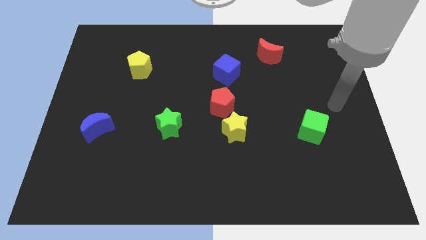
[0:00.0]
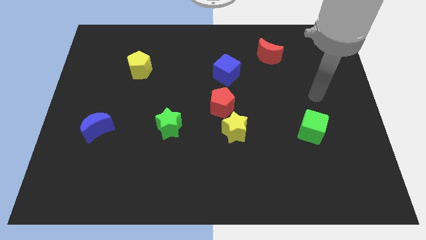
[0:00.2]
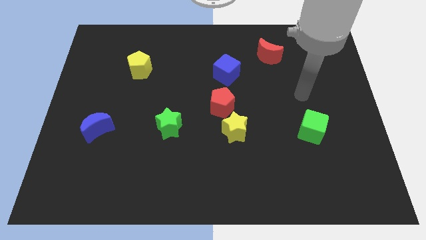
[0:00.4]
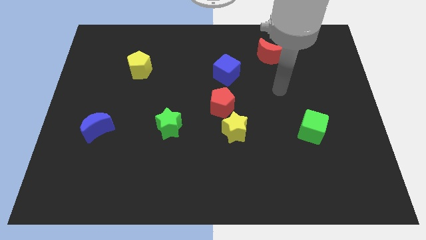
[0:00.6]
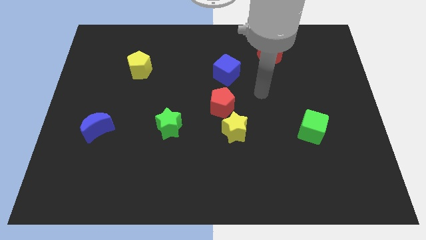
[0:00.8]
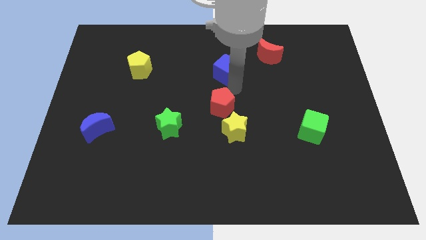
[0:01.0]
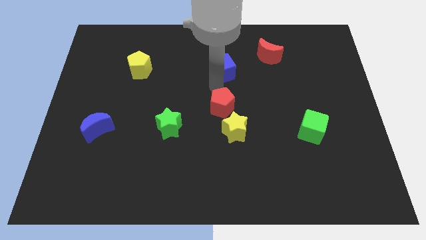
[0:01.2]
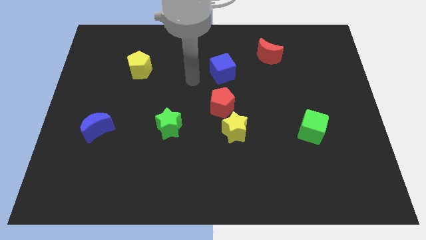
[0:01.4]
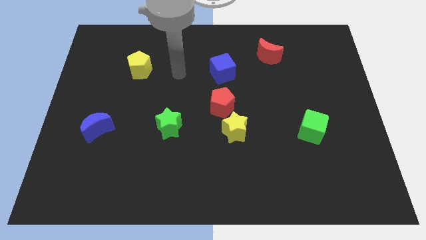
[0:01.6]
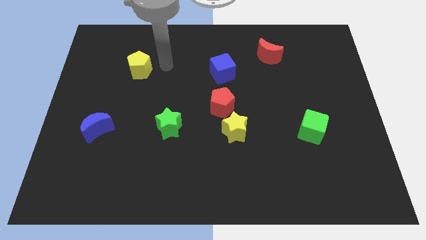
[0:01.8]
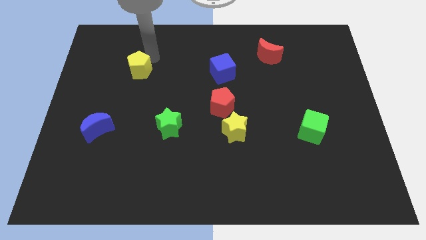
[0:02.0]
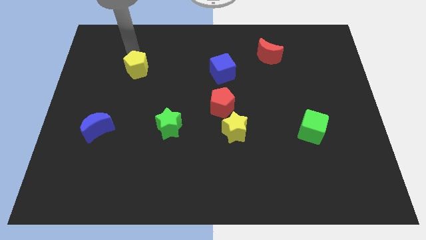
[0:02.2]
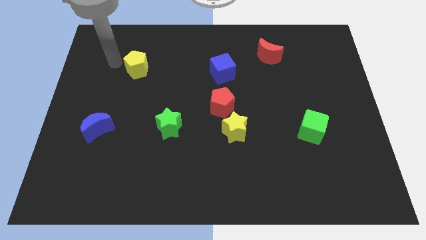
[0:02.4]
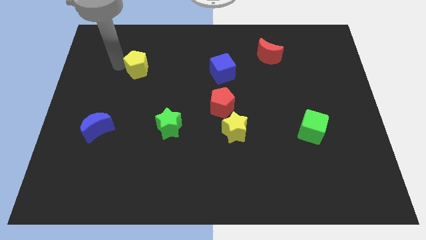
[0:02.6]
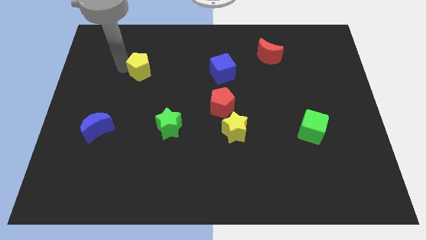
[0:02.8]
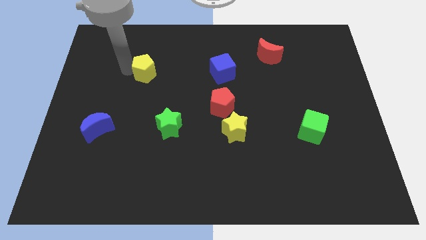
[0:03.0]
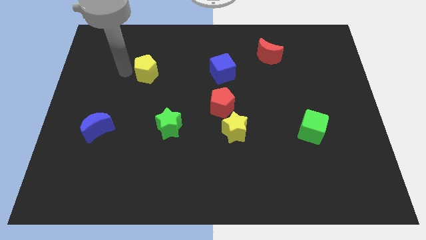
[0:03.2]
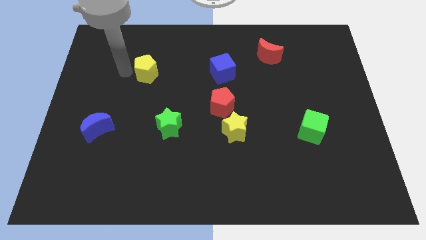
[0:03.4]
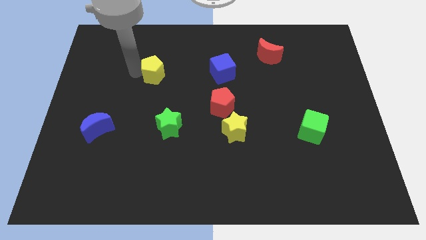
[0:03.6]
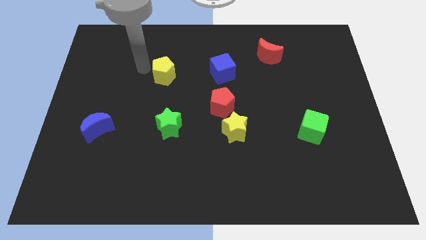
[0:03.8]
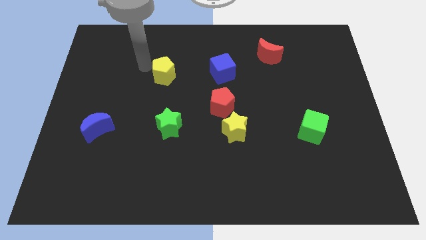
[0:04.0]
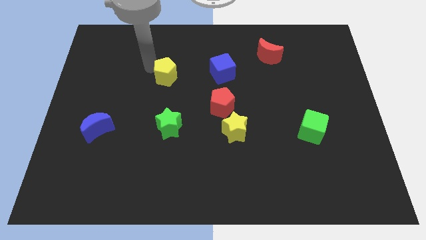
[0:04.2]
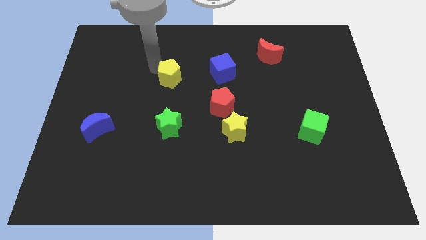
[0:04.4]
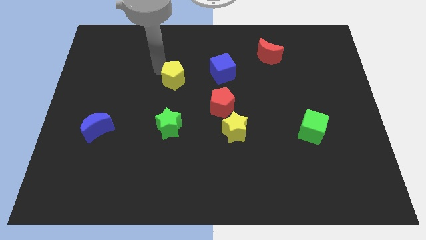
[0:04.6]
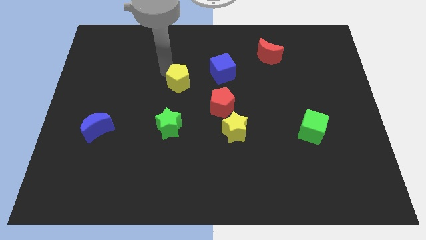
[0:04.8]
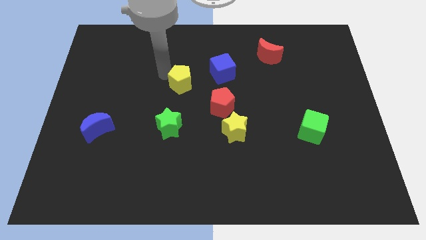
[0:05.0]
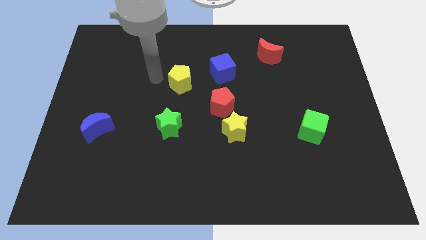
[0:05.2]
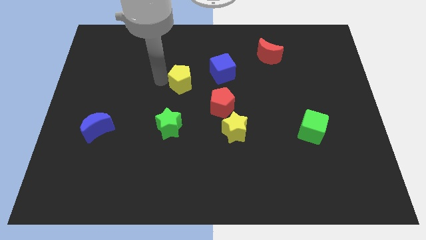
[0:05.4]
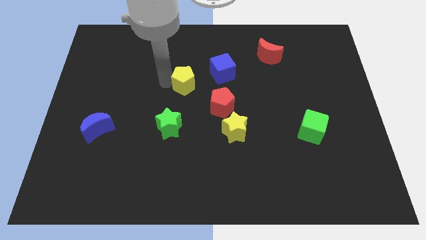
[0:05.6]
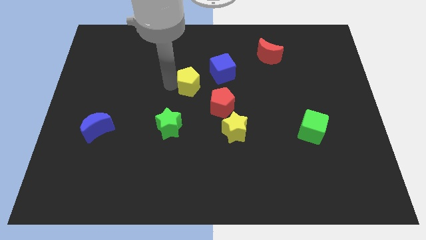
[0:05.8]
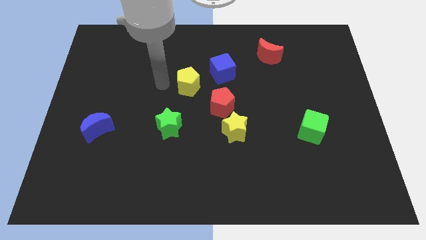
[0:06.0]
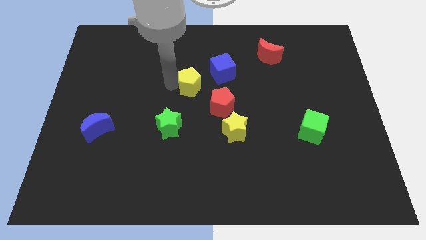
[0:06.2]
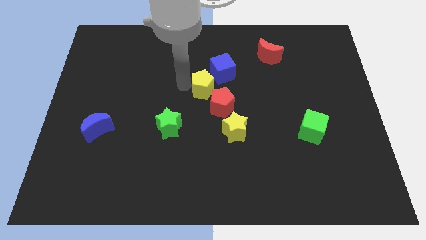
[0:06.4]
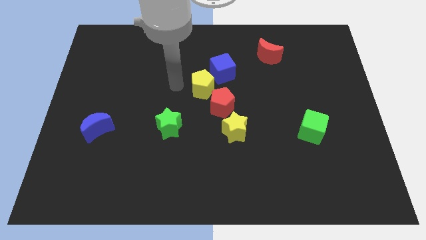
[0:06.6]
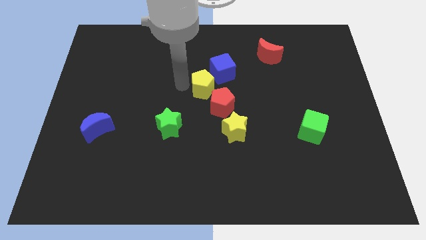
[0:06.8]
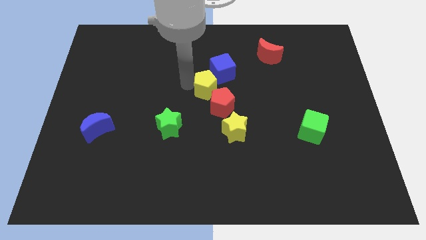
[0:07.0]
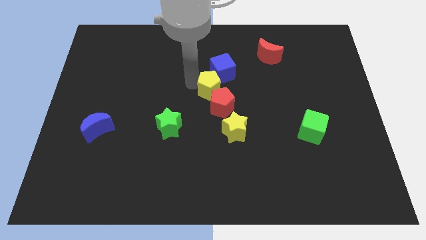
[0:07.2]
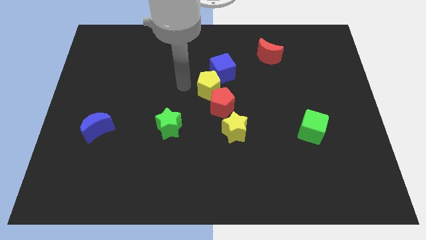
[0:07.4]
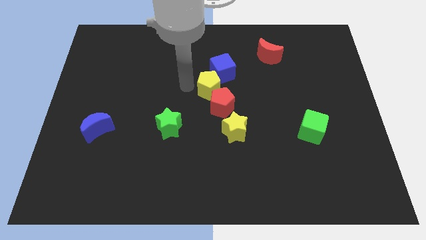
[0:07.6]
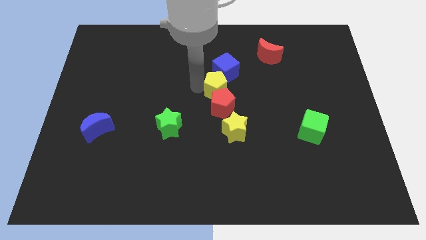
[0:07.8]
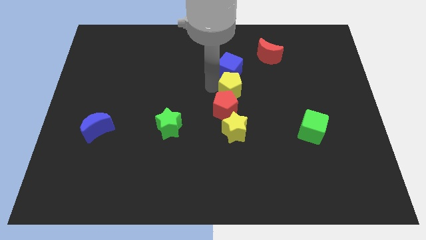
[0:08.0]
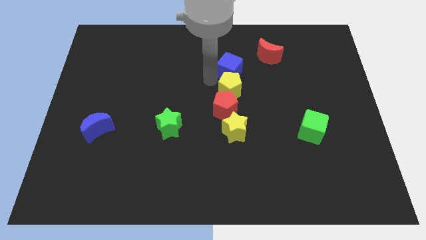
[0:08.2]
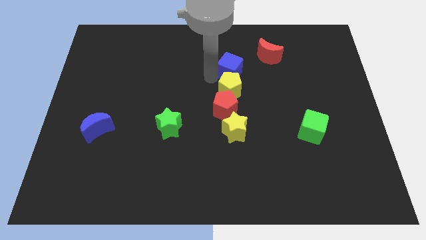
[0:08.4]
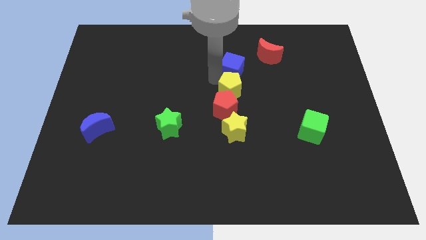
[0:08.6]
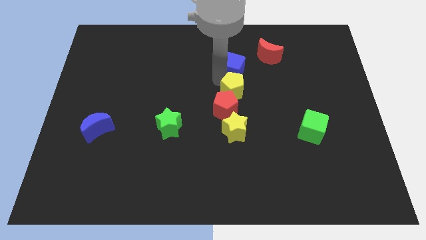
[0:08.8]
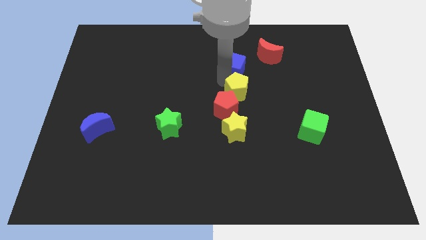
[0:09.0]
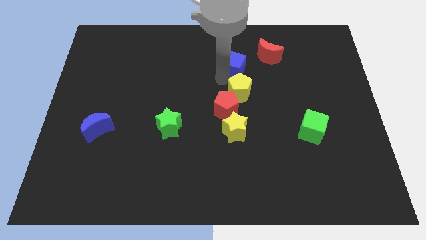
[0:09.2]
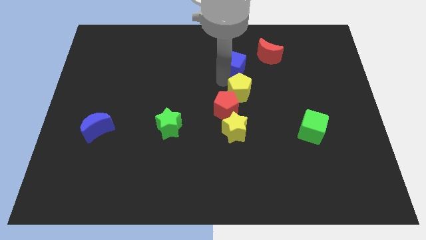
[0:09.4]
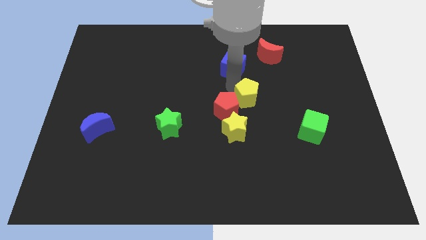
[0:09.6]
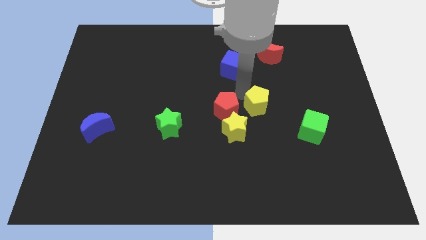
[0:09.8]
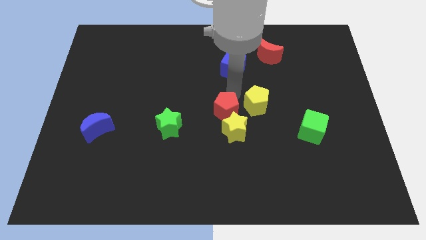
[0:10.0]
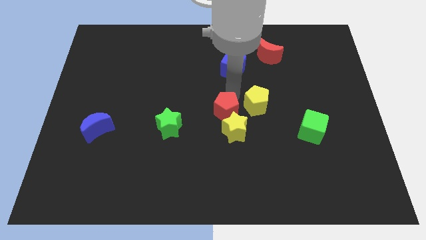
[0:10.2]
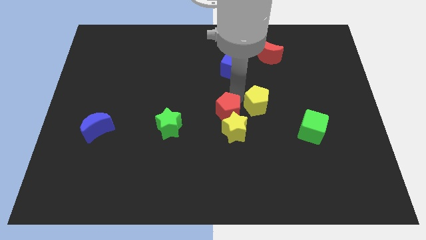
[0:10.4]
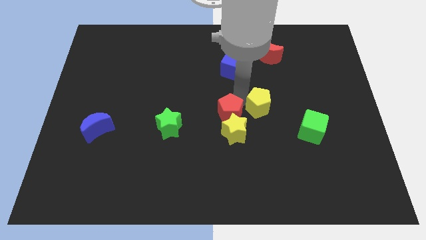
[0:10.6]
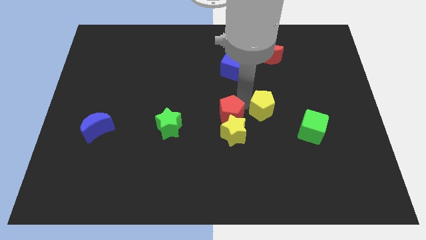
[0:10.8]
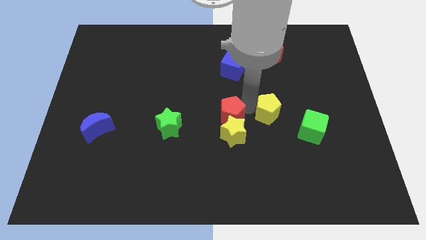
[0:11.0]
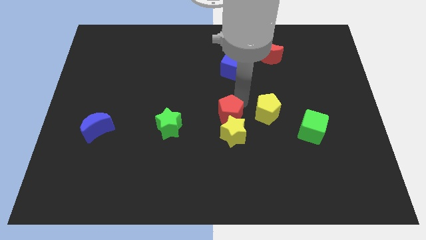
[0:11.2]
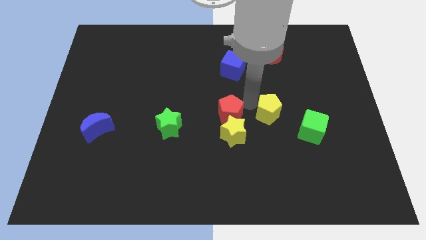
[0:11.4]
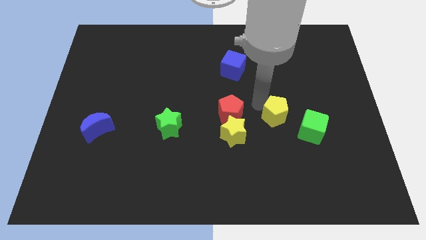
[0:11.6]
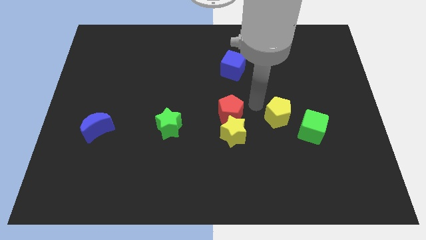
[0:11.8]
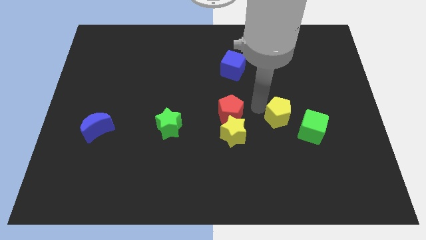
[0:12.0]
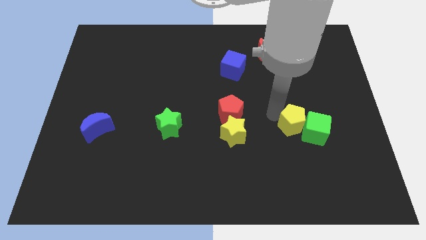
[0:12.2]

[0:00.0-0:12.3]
move the yellow pentagon close to the green cube

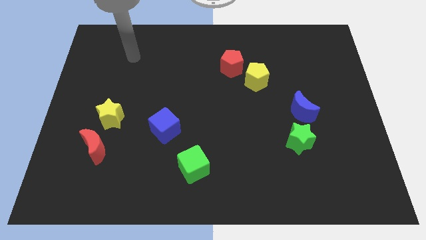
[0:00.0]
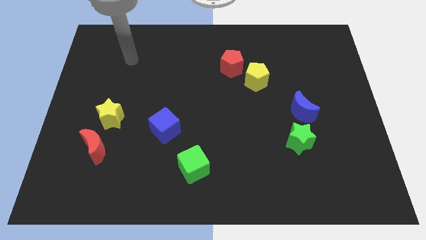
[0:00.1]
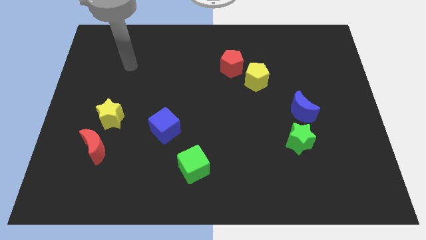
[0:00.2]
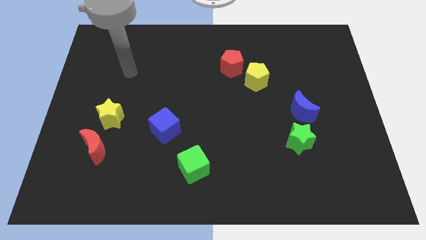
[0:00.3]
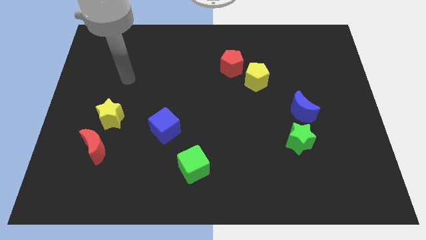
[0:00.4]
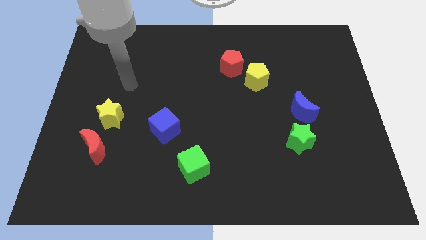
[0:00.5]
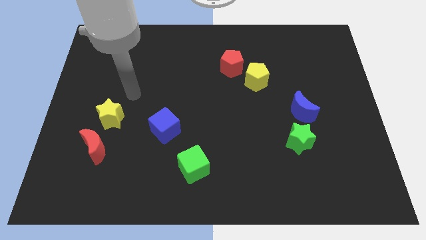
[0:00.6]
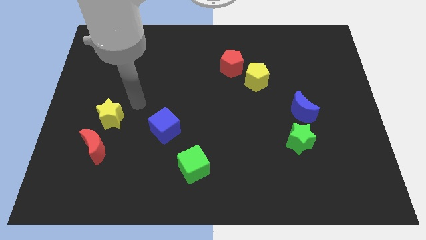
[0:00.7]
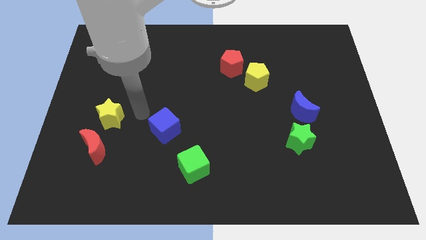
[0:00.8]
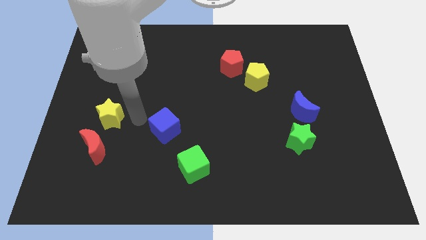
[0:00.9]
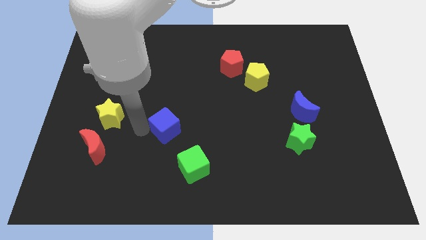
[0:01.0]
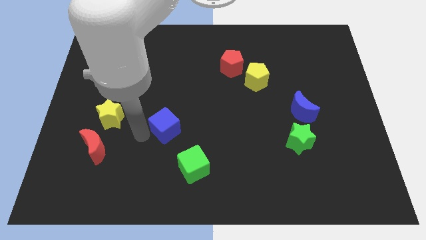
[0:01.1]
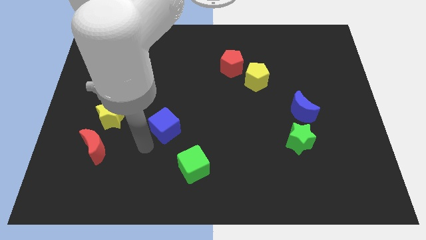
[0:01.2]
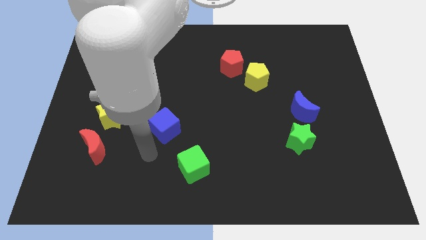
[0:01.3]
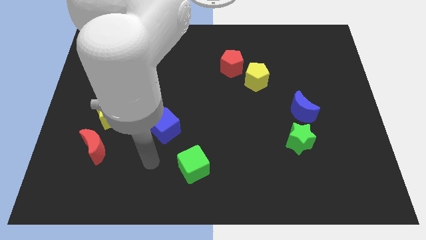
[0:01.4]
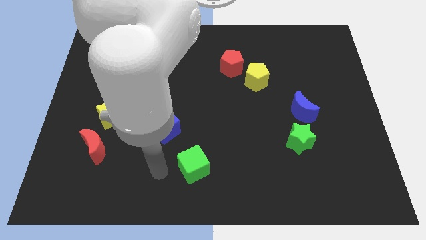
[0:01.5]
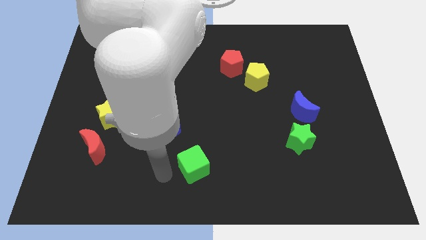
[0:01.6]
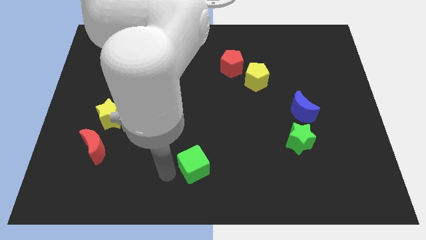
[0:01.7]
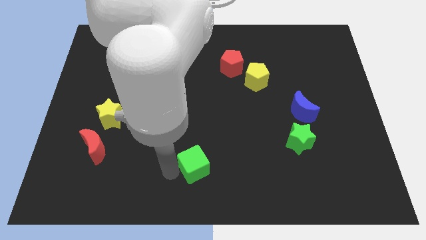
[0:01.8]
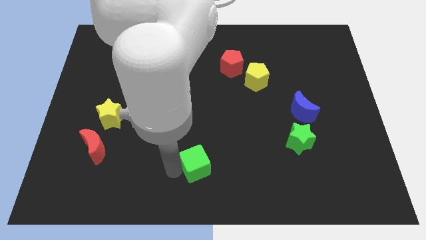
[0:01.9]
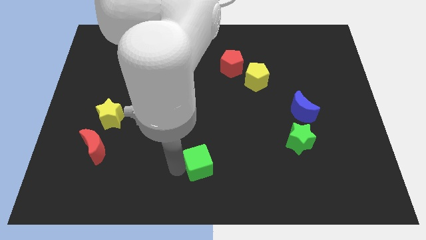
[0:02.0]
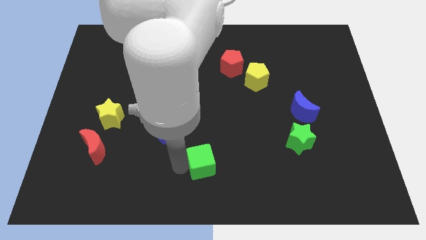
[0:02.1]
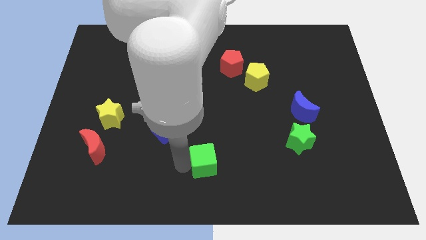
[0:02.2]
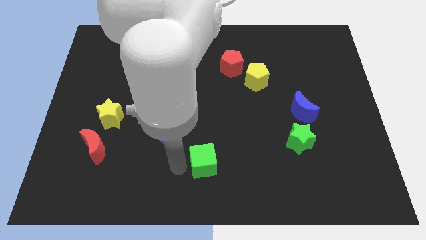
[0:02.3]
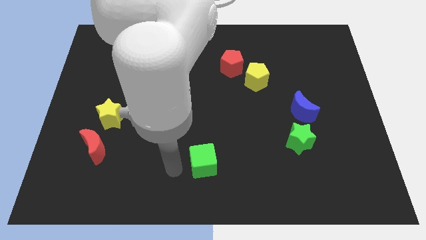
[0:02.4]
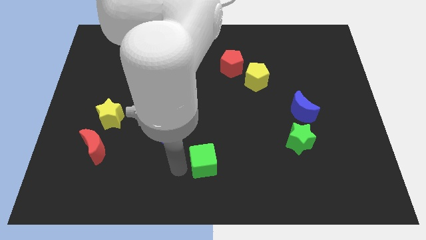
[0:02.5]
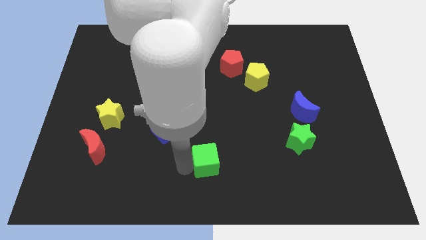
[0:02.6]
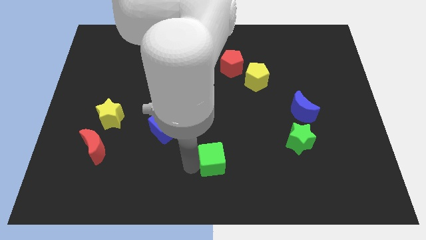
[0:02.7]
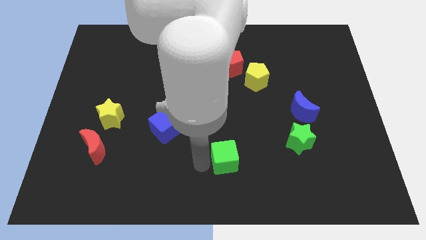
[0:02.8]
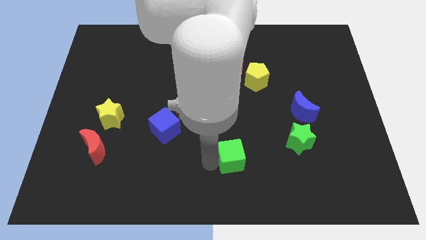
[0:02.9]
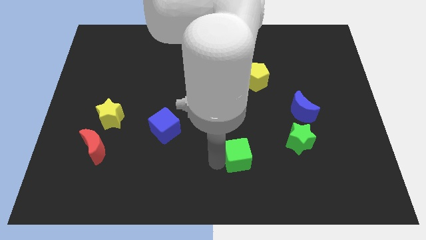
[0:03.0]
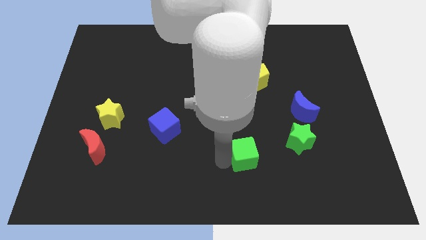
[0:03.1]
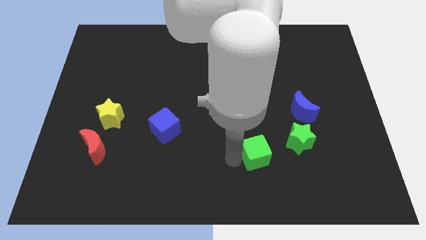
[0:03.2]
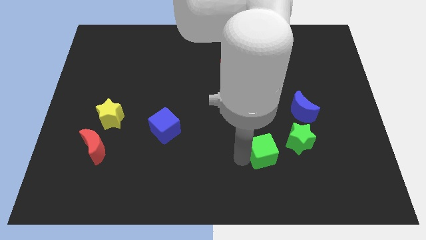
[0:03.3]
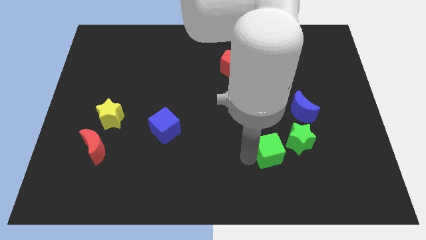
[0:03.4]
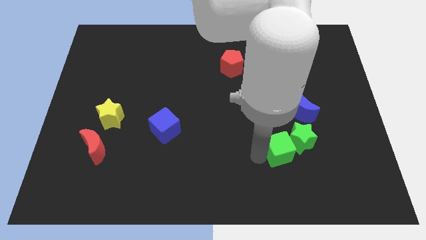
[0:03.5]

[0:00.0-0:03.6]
move the green cube towards the green star
